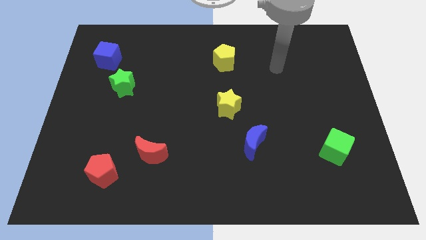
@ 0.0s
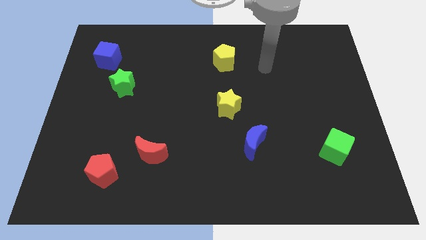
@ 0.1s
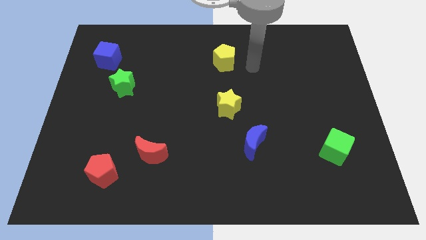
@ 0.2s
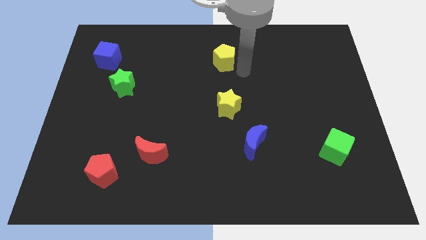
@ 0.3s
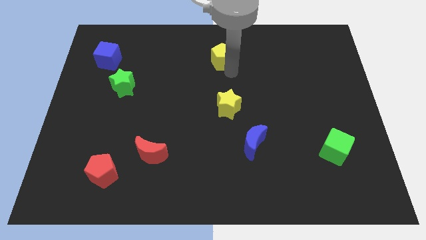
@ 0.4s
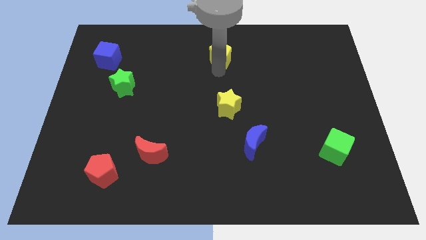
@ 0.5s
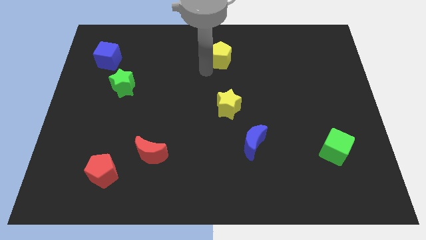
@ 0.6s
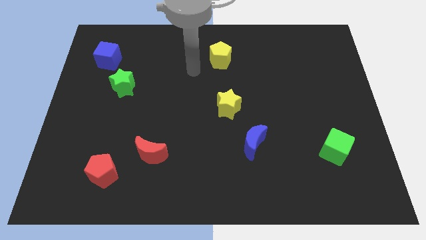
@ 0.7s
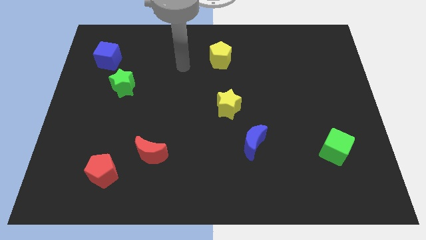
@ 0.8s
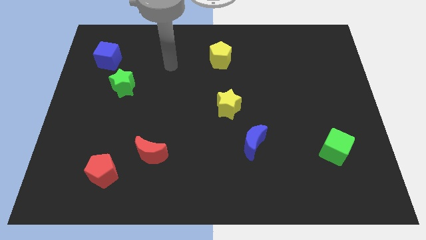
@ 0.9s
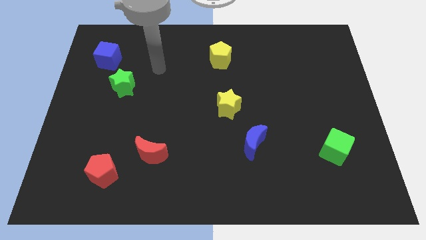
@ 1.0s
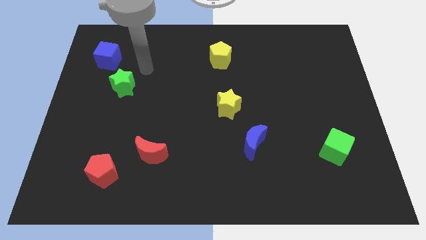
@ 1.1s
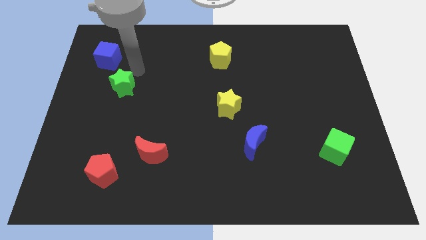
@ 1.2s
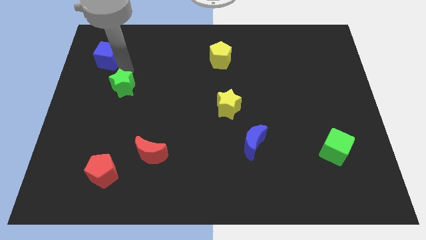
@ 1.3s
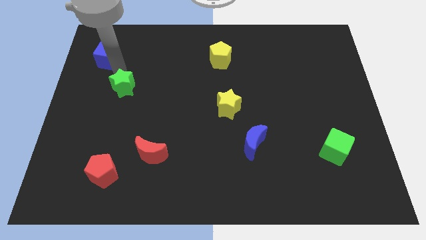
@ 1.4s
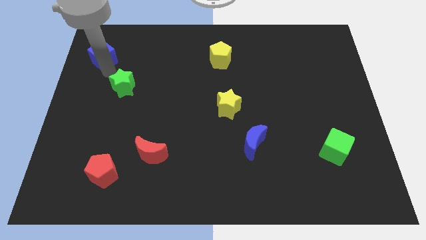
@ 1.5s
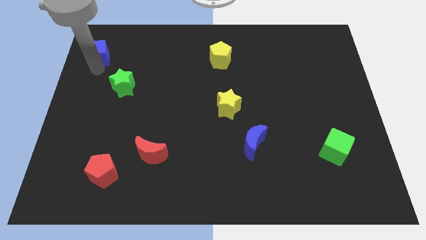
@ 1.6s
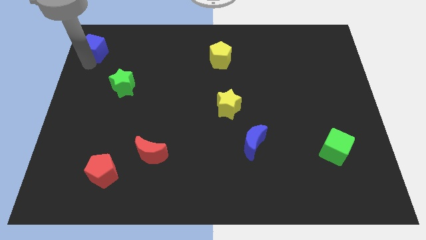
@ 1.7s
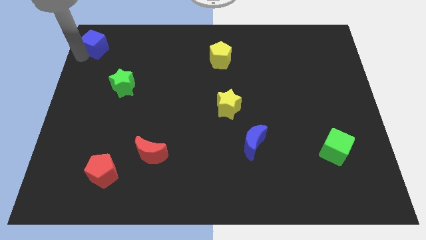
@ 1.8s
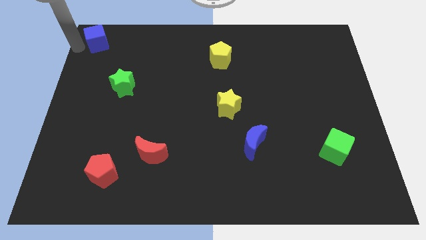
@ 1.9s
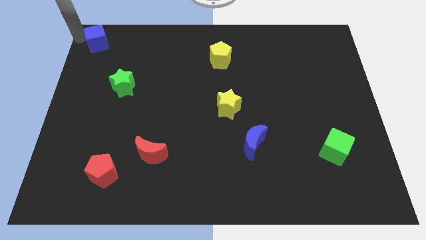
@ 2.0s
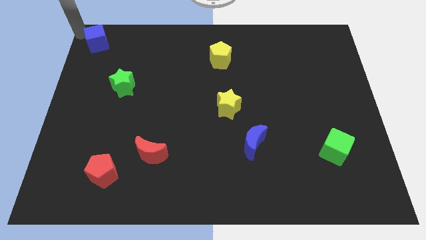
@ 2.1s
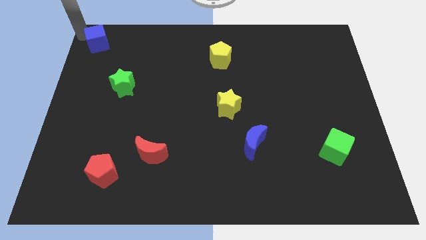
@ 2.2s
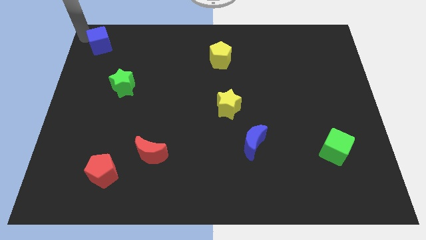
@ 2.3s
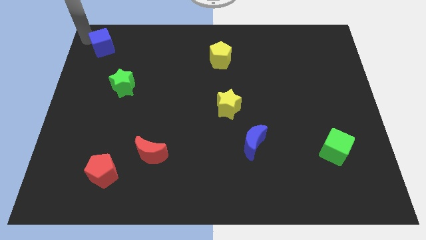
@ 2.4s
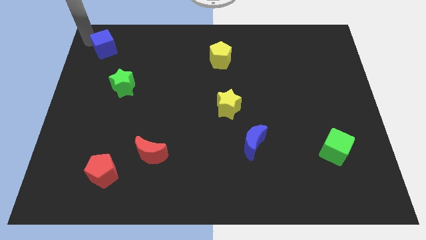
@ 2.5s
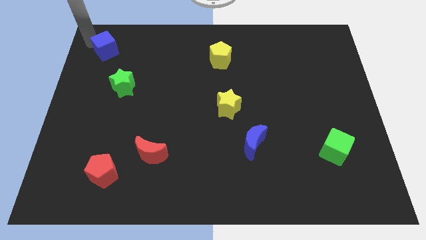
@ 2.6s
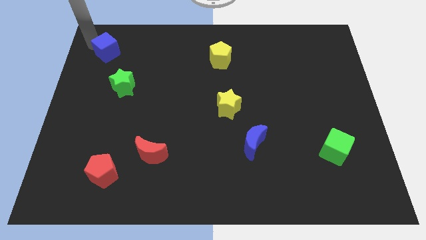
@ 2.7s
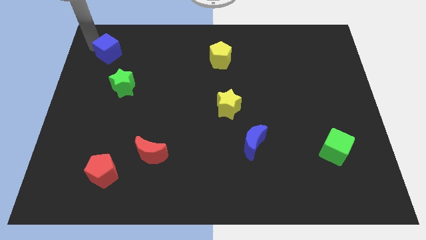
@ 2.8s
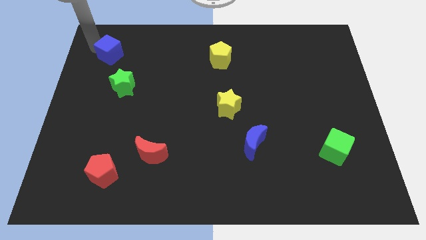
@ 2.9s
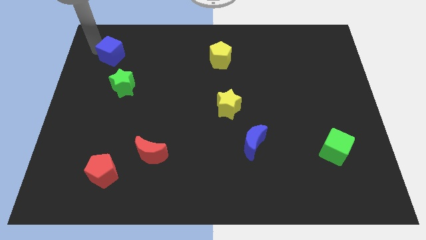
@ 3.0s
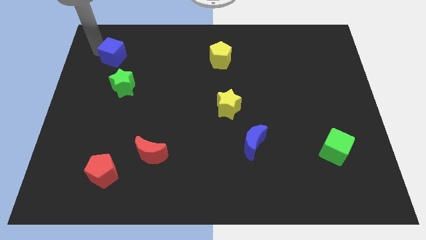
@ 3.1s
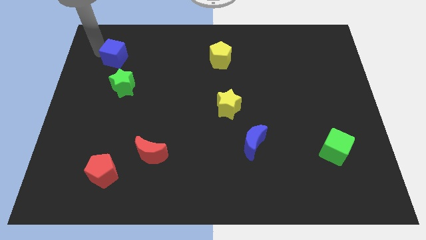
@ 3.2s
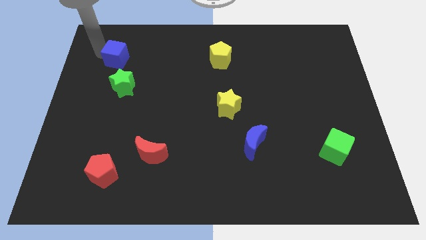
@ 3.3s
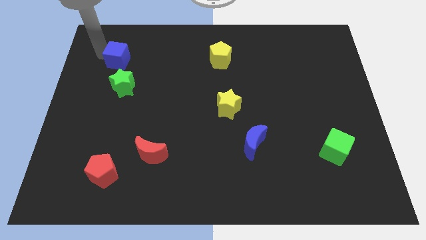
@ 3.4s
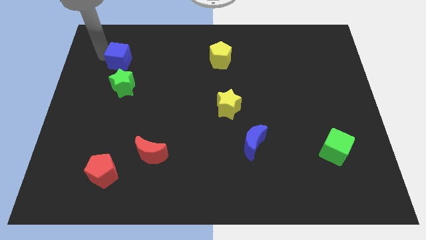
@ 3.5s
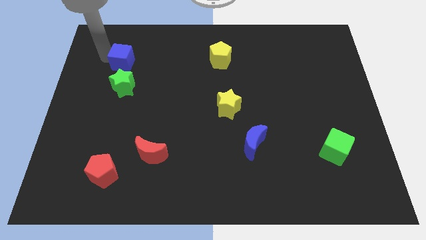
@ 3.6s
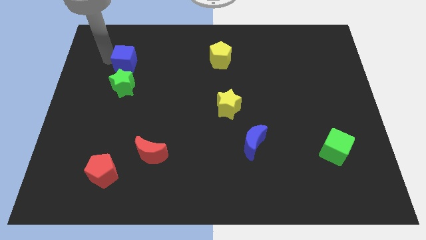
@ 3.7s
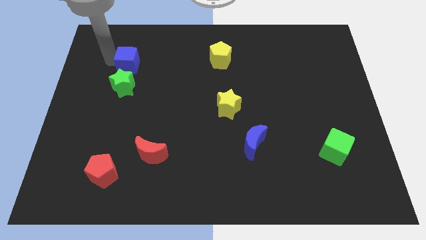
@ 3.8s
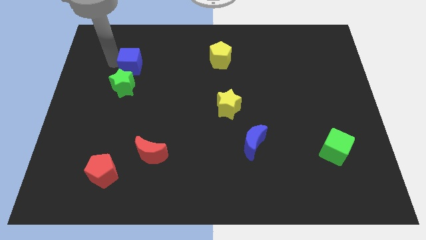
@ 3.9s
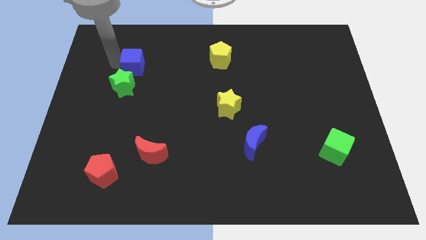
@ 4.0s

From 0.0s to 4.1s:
move the blue cube slightly to the right

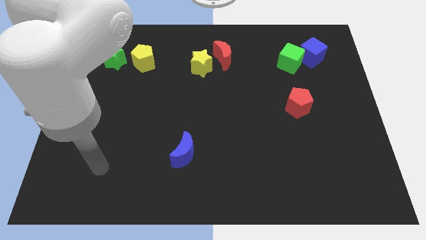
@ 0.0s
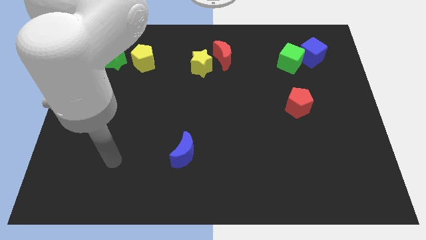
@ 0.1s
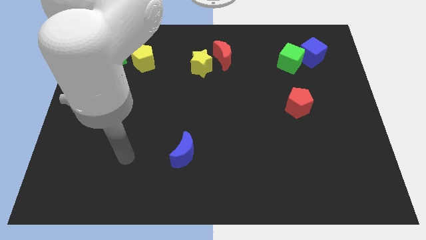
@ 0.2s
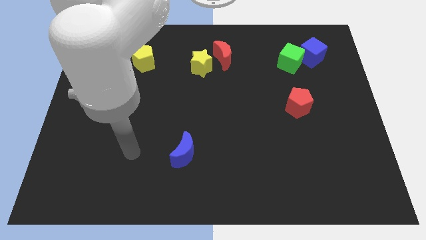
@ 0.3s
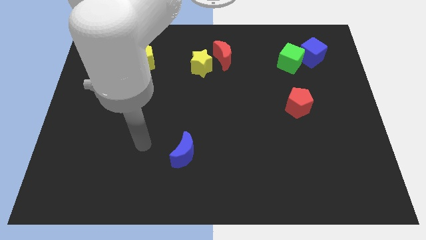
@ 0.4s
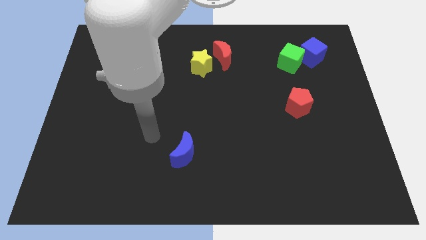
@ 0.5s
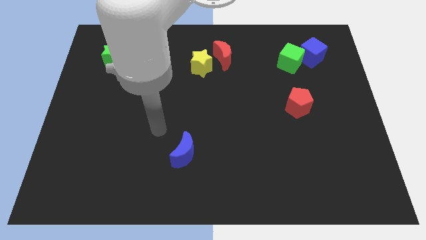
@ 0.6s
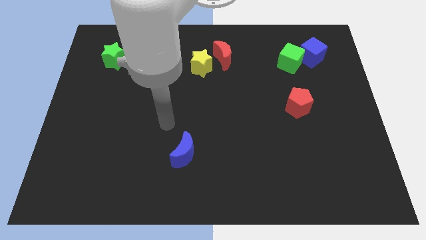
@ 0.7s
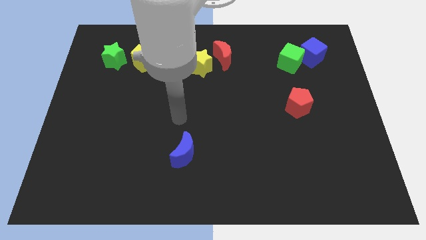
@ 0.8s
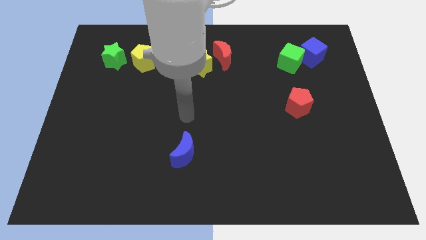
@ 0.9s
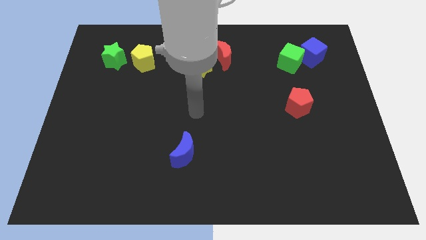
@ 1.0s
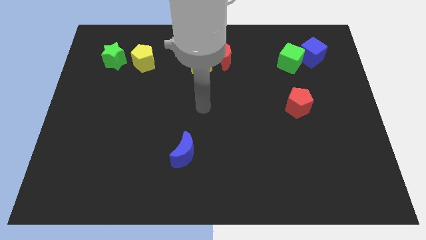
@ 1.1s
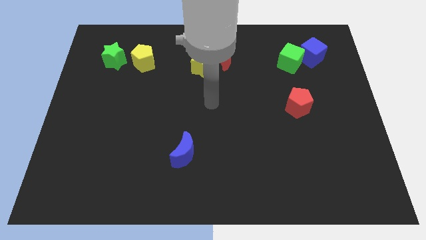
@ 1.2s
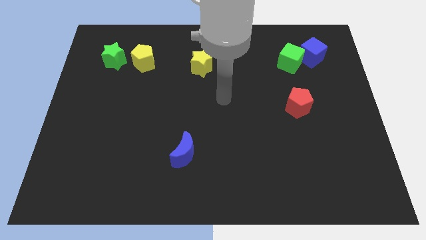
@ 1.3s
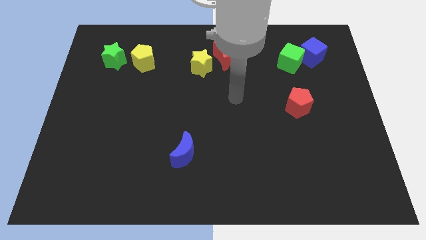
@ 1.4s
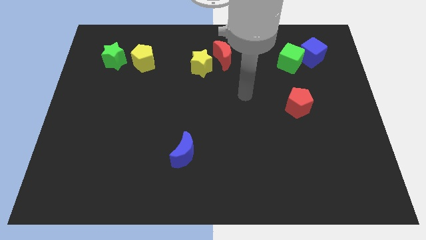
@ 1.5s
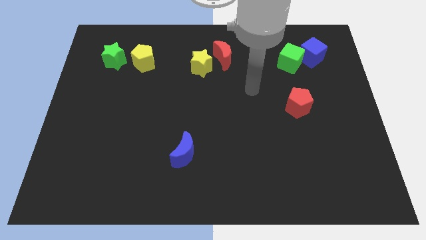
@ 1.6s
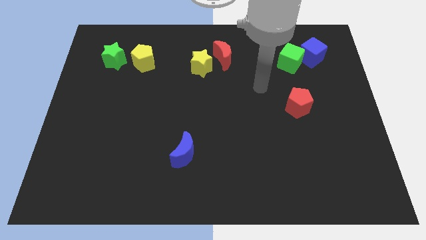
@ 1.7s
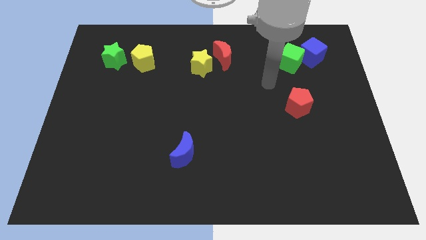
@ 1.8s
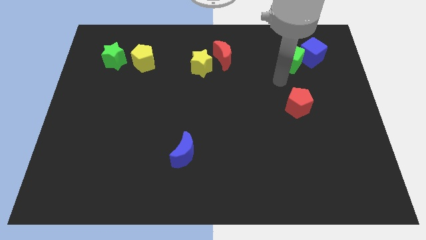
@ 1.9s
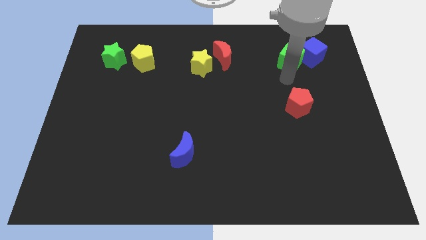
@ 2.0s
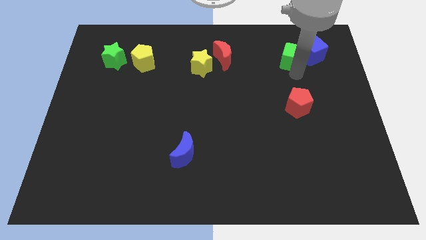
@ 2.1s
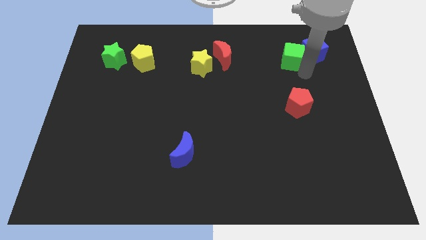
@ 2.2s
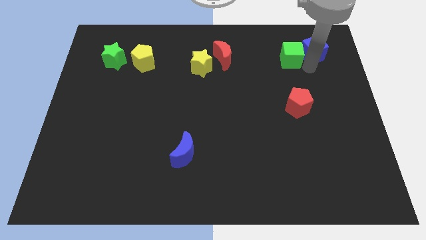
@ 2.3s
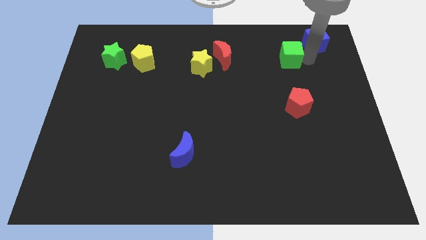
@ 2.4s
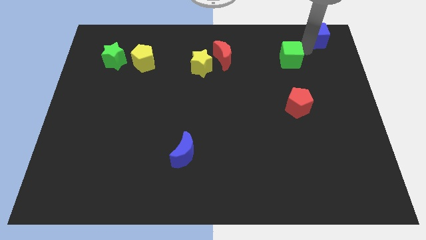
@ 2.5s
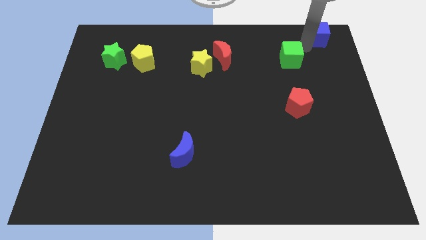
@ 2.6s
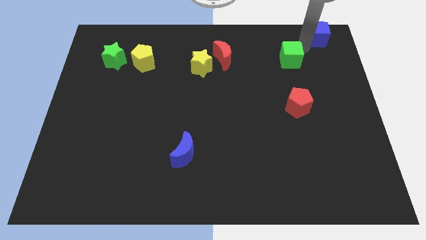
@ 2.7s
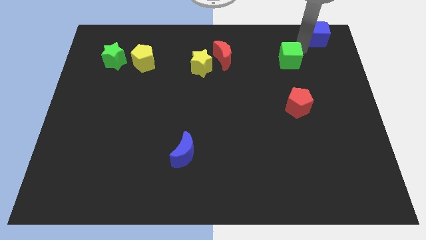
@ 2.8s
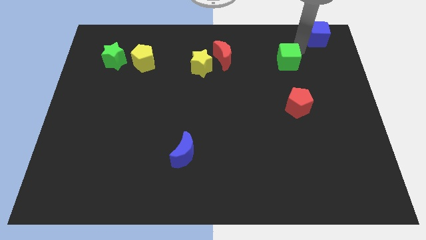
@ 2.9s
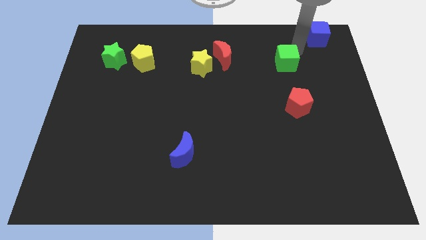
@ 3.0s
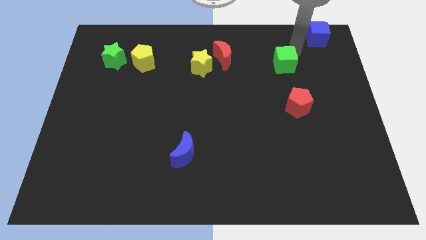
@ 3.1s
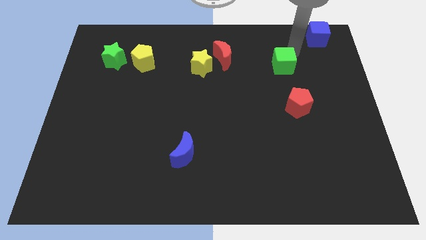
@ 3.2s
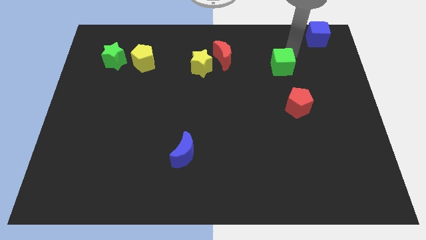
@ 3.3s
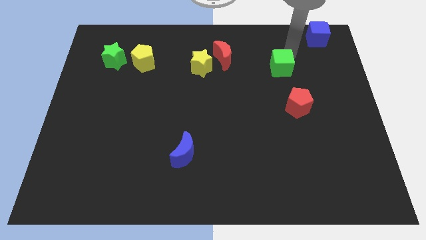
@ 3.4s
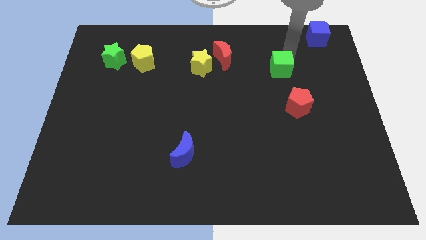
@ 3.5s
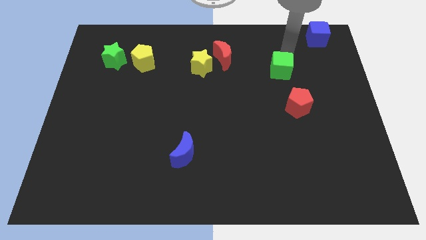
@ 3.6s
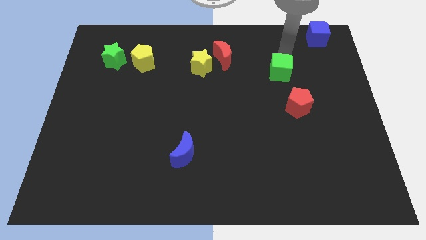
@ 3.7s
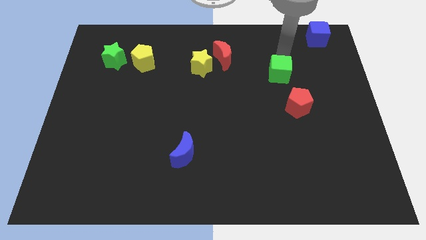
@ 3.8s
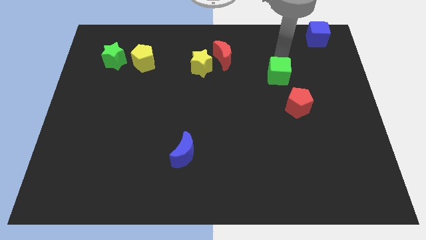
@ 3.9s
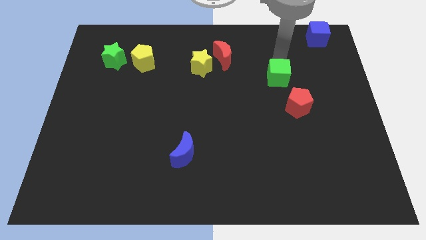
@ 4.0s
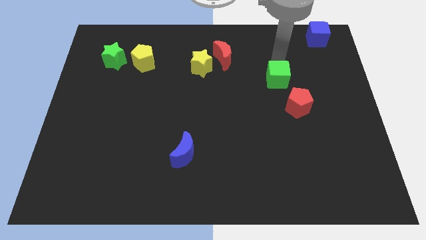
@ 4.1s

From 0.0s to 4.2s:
slide the green cube slightly down and left

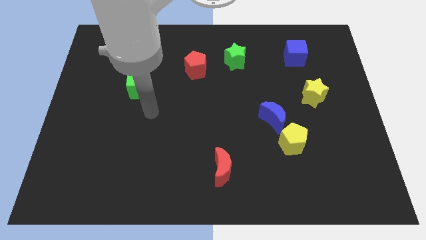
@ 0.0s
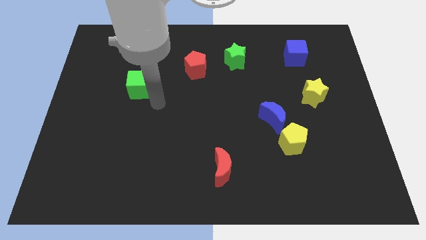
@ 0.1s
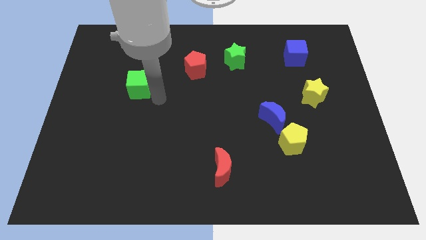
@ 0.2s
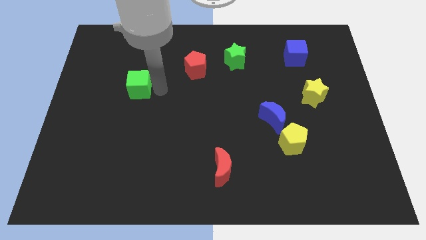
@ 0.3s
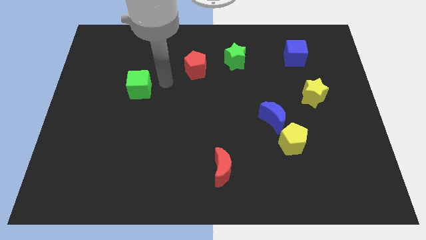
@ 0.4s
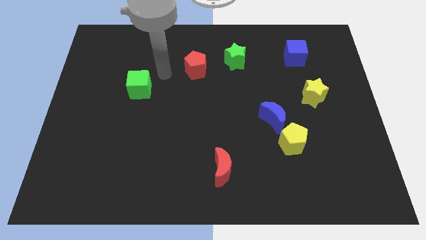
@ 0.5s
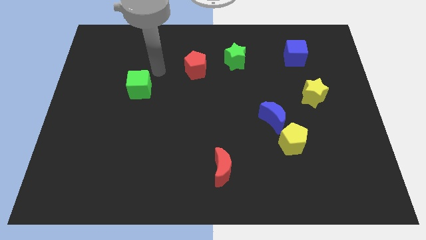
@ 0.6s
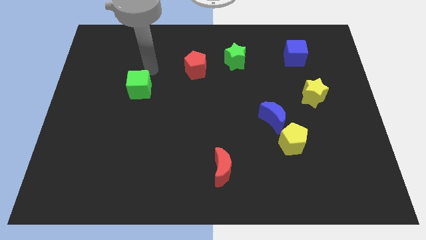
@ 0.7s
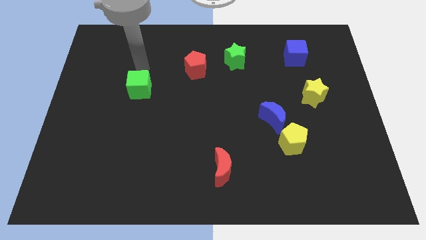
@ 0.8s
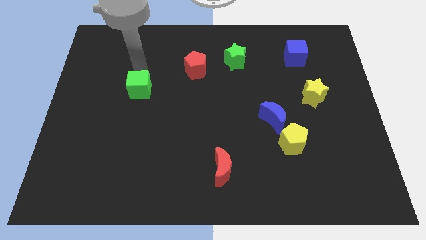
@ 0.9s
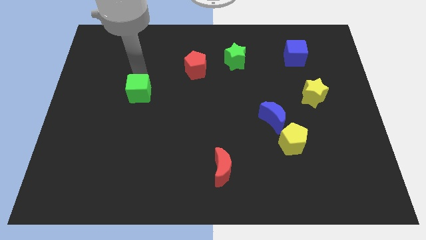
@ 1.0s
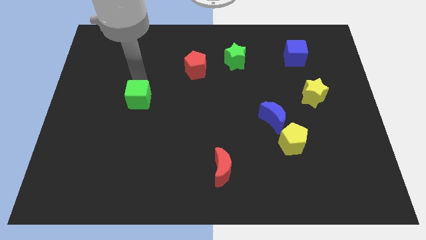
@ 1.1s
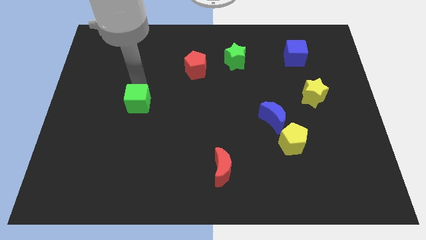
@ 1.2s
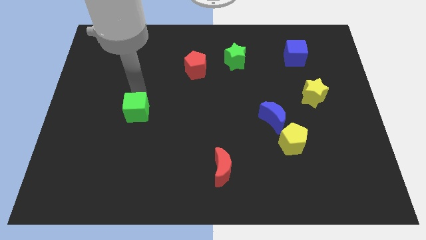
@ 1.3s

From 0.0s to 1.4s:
push the green cube a bit downwards
